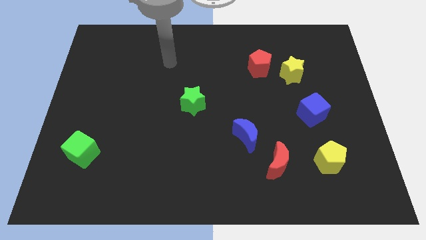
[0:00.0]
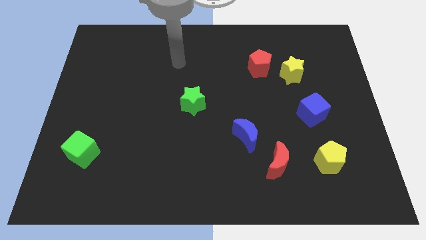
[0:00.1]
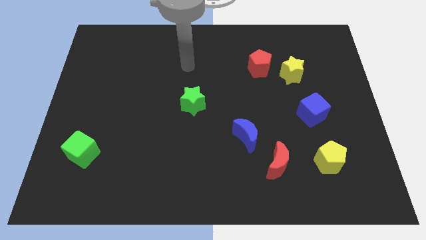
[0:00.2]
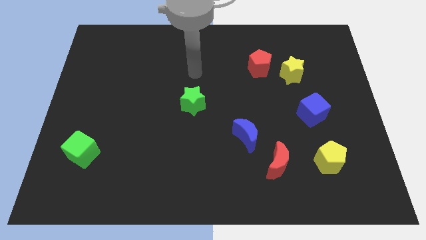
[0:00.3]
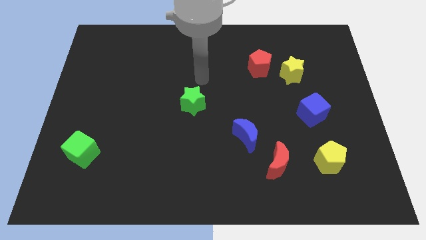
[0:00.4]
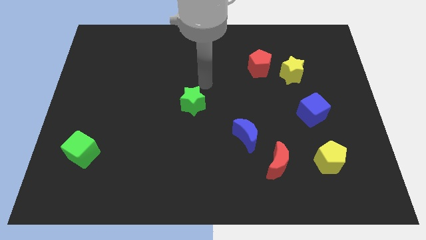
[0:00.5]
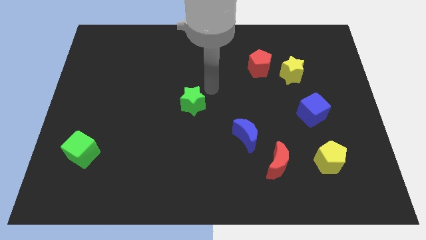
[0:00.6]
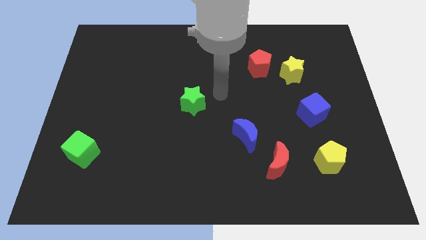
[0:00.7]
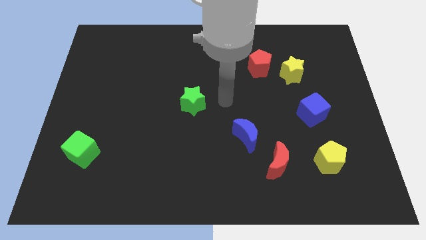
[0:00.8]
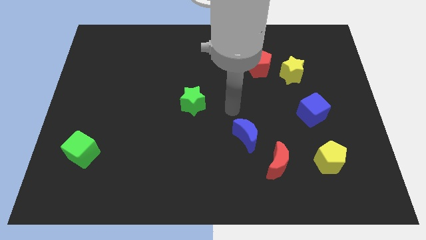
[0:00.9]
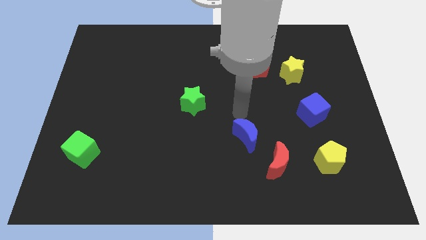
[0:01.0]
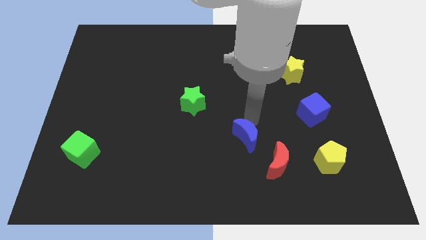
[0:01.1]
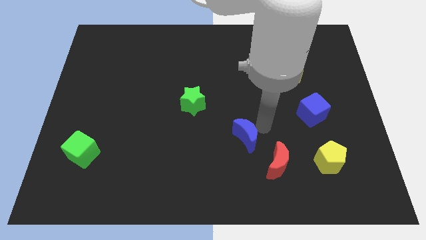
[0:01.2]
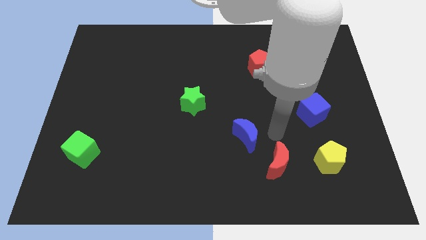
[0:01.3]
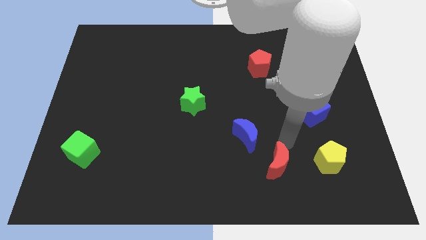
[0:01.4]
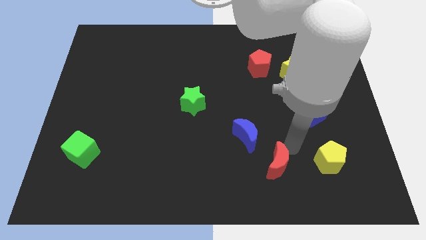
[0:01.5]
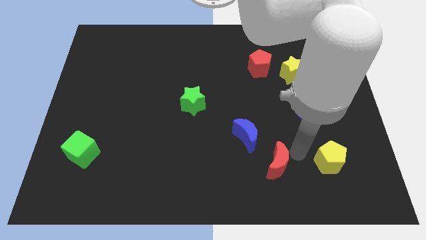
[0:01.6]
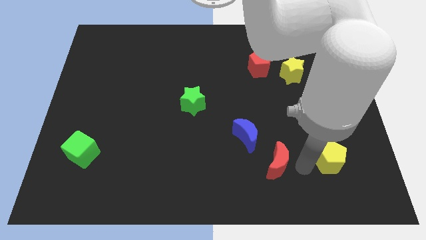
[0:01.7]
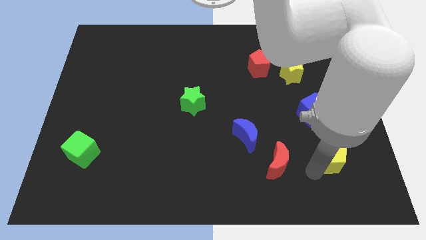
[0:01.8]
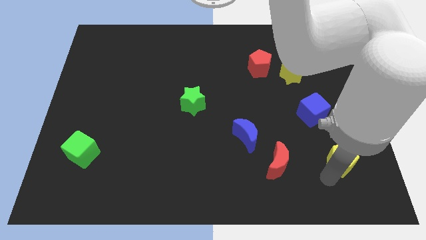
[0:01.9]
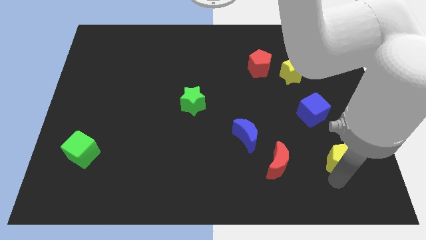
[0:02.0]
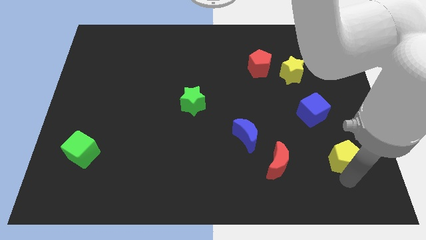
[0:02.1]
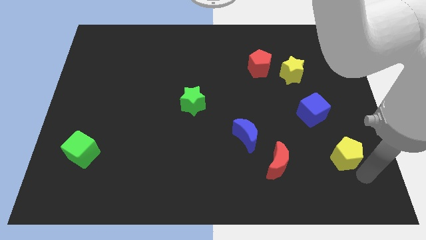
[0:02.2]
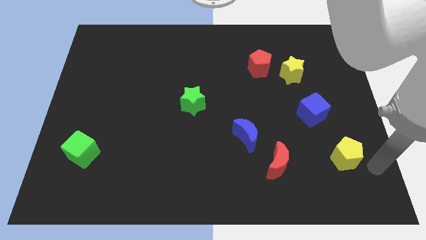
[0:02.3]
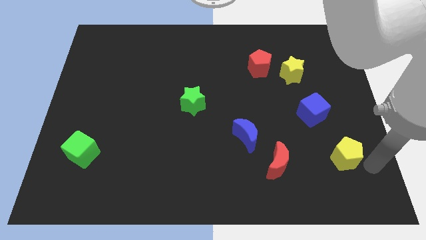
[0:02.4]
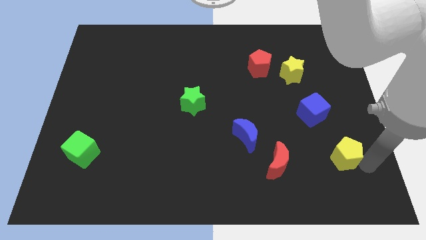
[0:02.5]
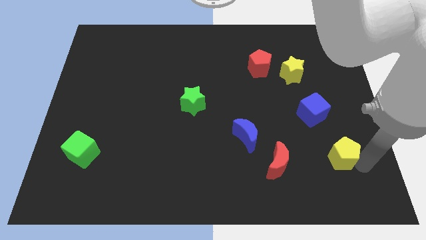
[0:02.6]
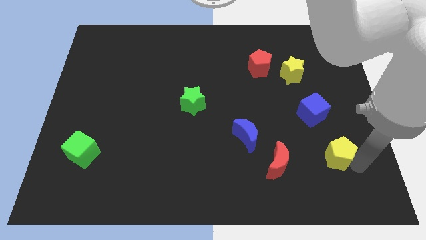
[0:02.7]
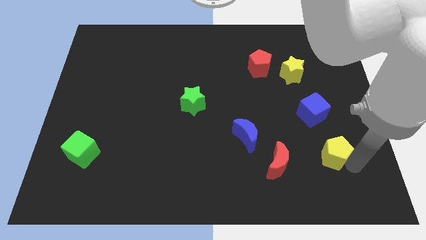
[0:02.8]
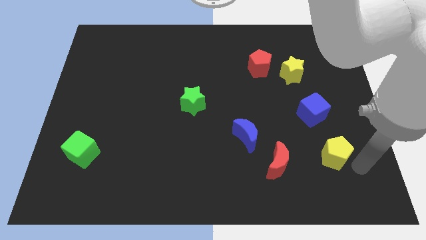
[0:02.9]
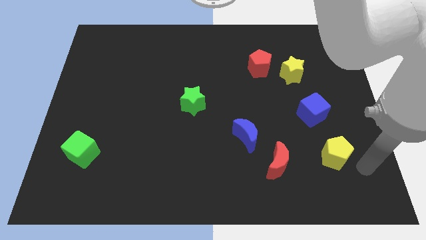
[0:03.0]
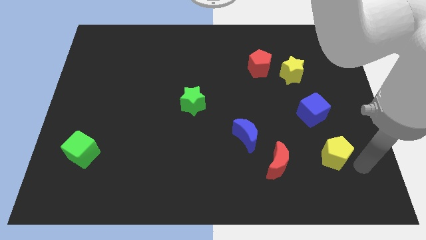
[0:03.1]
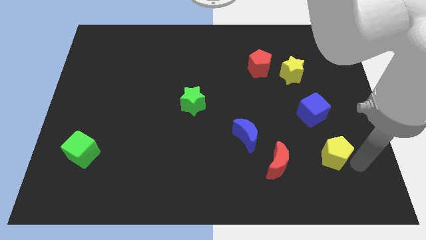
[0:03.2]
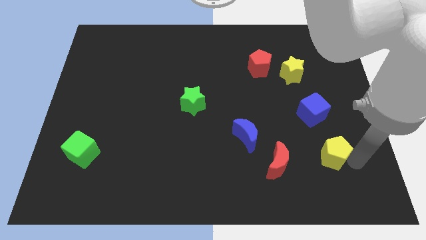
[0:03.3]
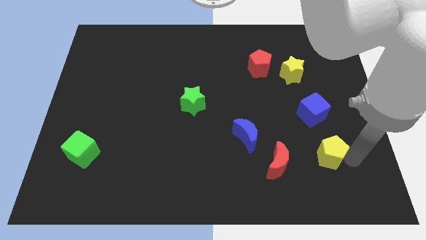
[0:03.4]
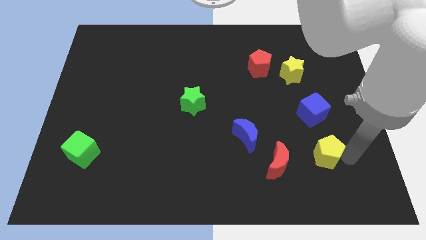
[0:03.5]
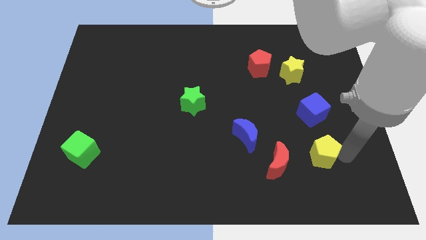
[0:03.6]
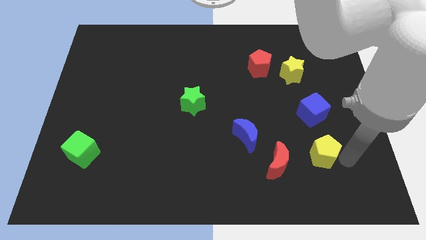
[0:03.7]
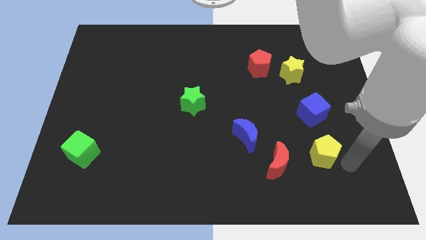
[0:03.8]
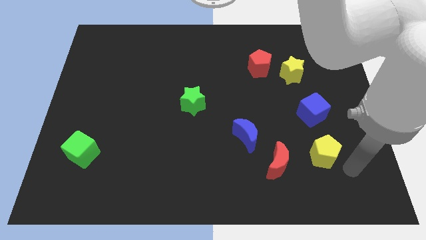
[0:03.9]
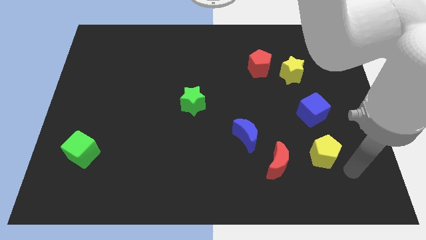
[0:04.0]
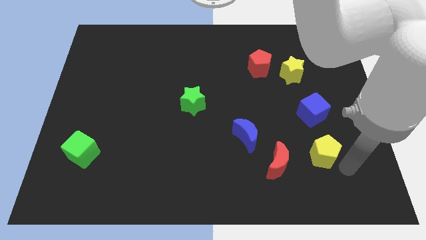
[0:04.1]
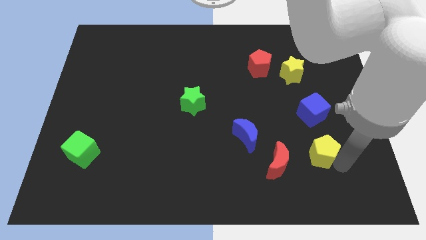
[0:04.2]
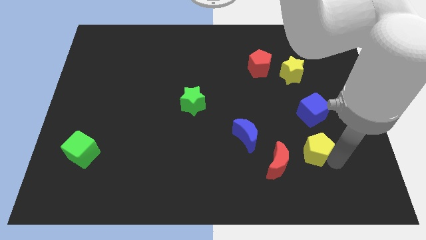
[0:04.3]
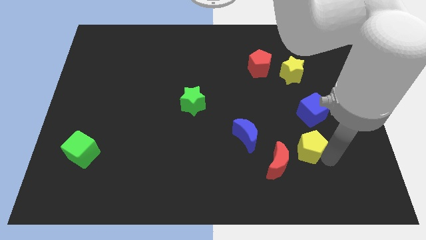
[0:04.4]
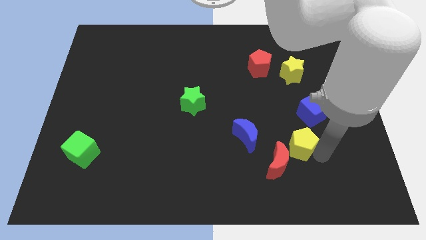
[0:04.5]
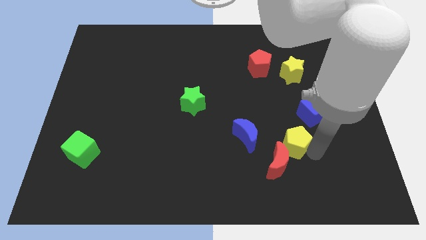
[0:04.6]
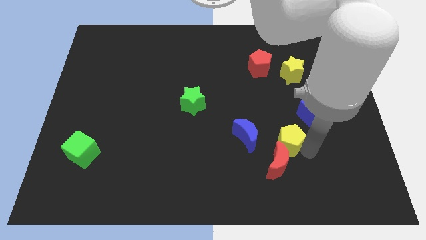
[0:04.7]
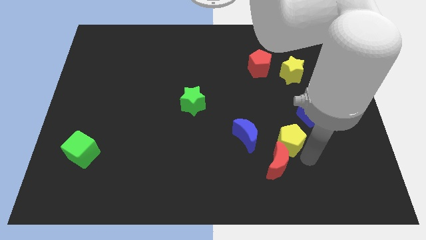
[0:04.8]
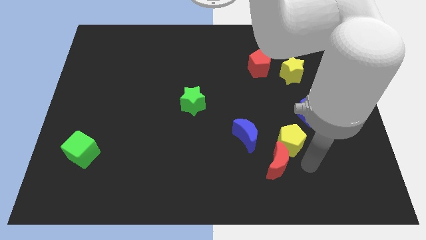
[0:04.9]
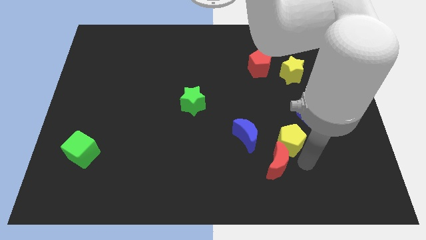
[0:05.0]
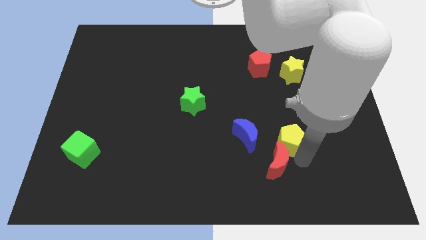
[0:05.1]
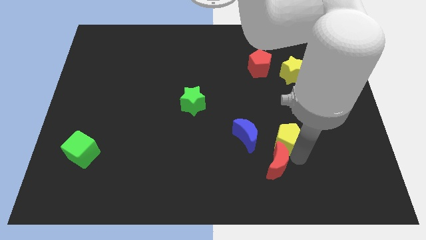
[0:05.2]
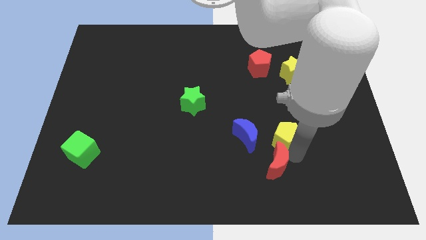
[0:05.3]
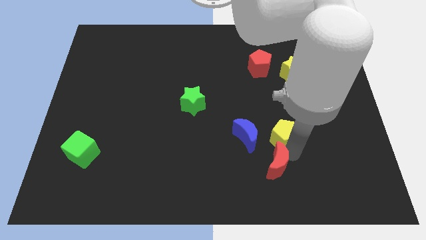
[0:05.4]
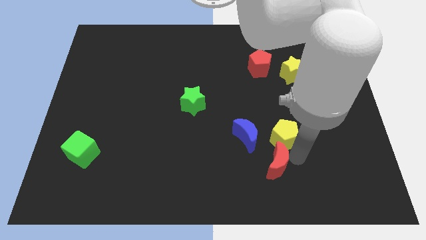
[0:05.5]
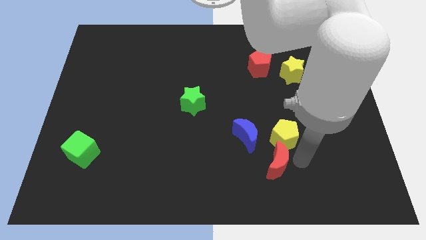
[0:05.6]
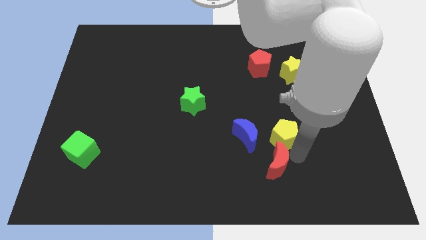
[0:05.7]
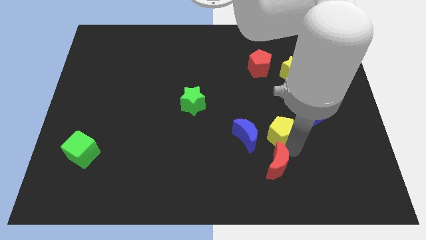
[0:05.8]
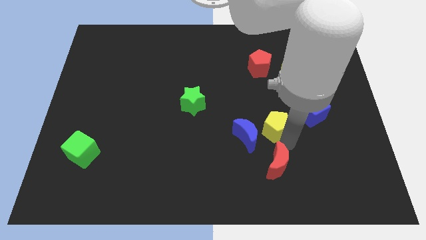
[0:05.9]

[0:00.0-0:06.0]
push the yellow pentagon to the top right side of the blue moon

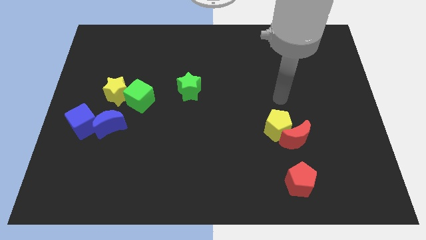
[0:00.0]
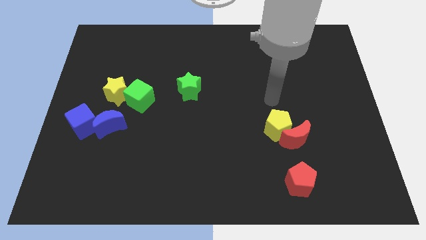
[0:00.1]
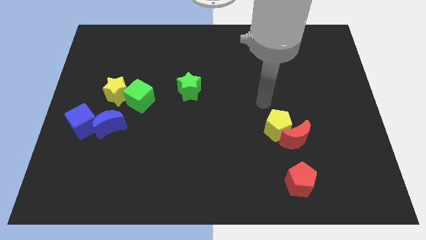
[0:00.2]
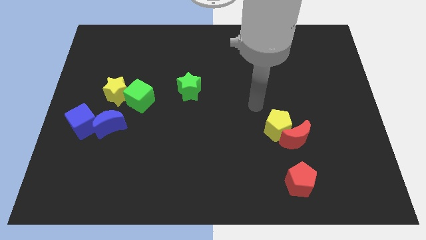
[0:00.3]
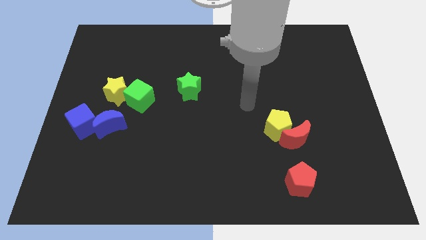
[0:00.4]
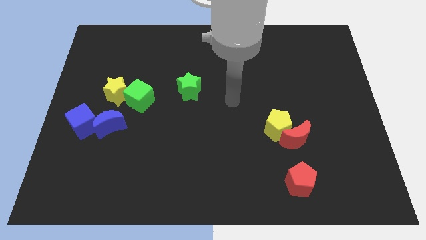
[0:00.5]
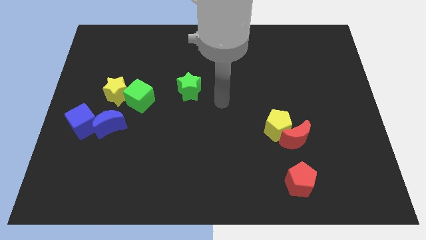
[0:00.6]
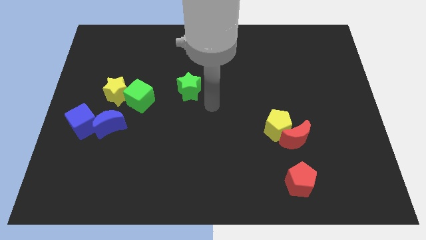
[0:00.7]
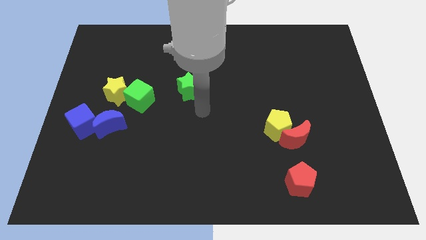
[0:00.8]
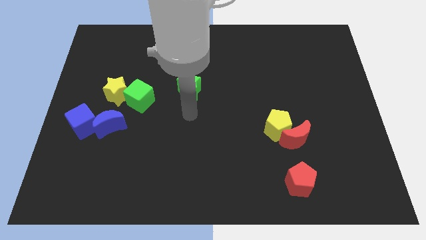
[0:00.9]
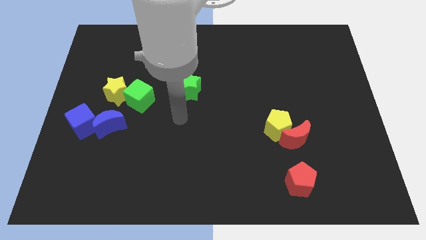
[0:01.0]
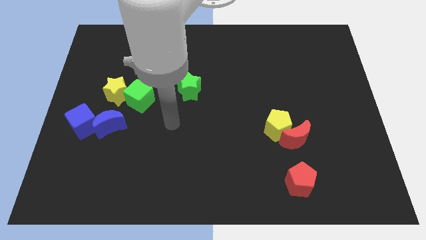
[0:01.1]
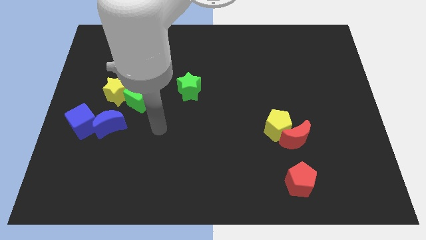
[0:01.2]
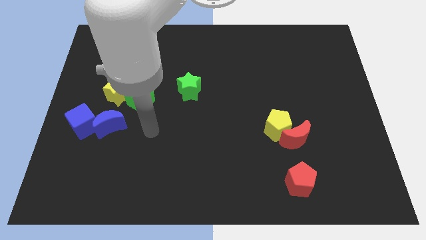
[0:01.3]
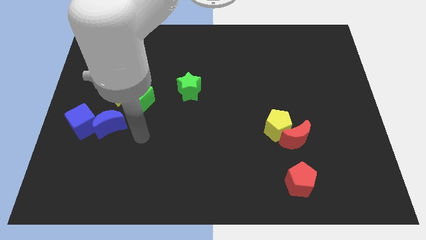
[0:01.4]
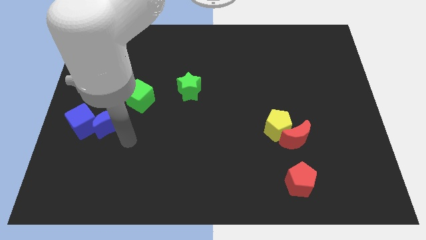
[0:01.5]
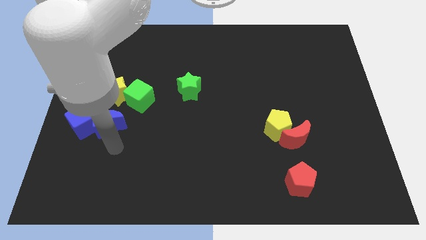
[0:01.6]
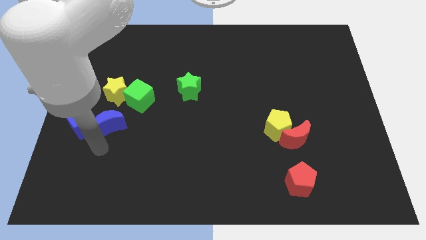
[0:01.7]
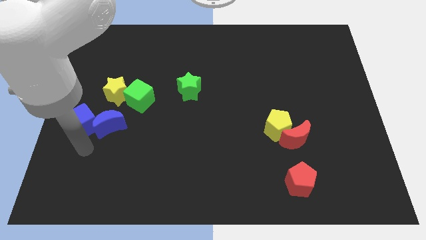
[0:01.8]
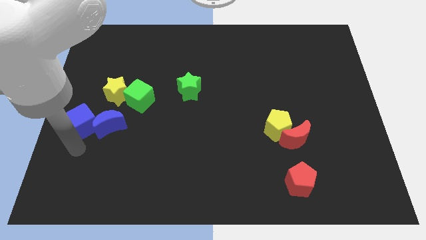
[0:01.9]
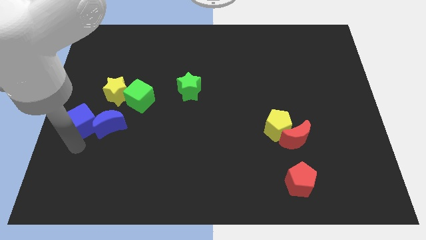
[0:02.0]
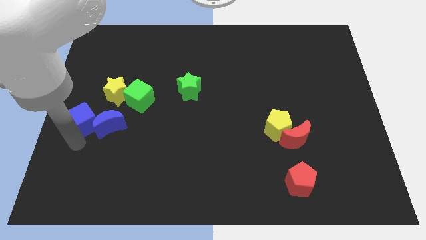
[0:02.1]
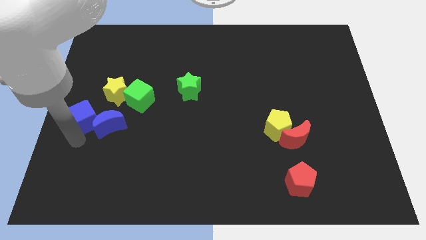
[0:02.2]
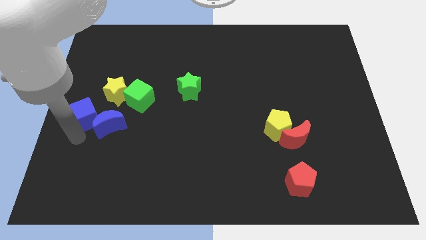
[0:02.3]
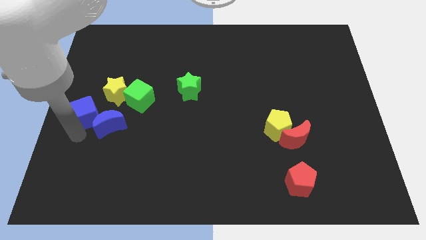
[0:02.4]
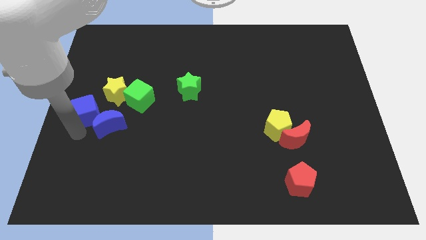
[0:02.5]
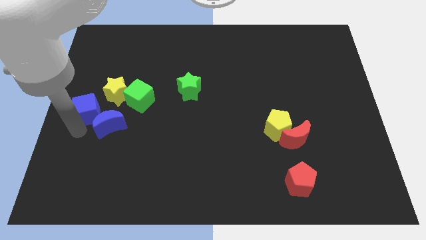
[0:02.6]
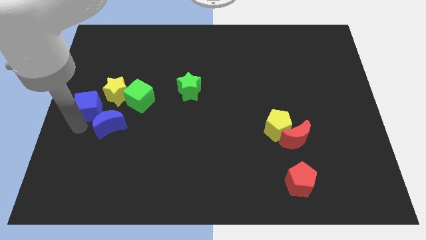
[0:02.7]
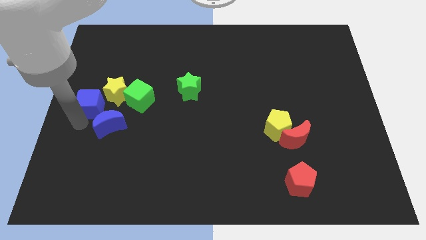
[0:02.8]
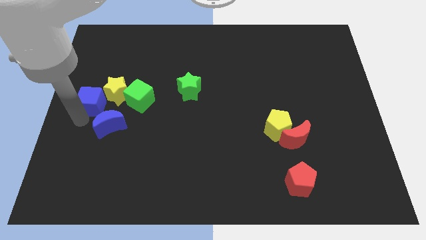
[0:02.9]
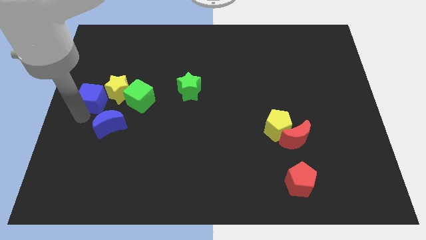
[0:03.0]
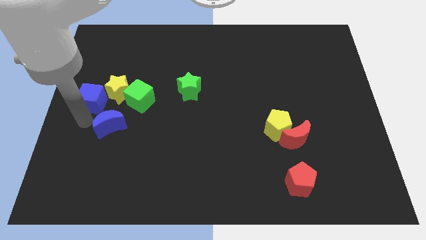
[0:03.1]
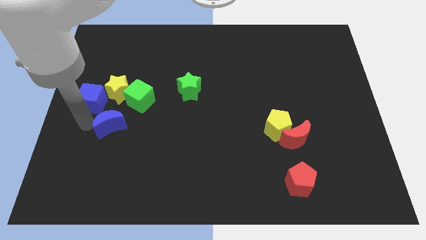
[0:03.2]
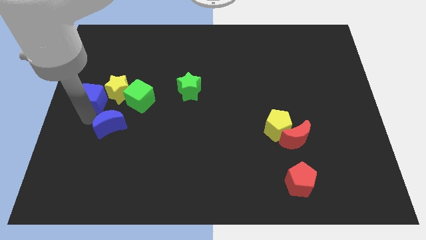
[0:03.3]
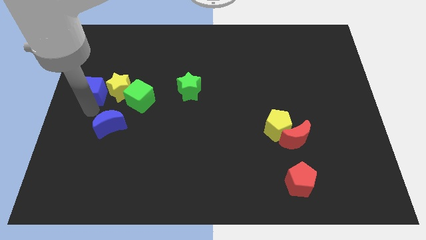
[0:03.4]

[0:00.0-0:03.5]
push the blue cube to the top left side of the yellow star
